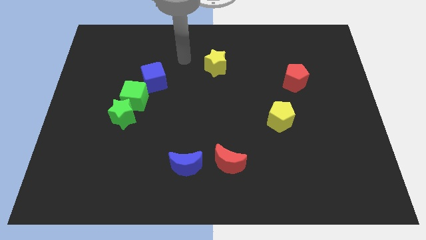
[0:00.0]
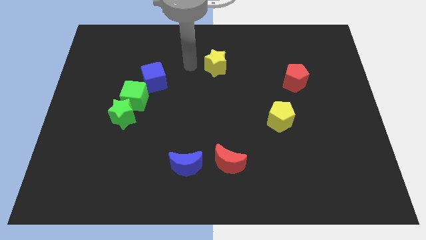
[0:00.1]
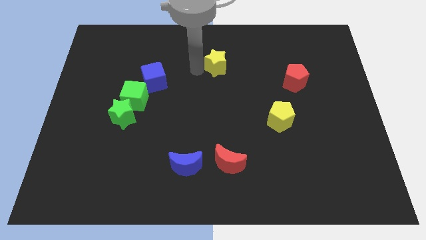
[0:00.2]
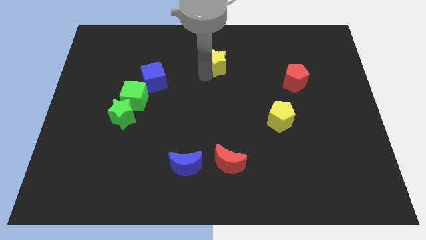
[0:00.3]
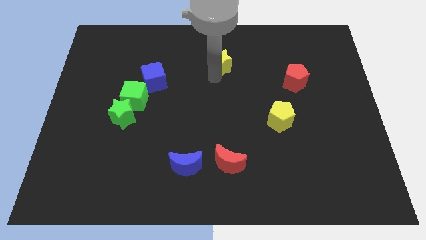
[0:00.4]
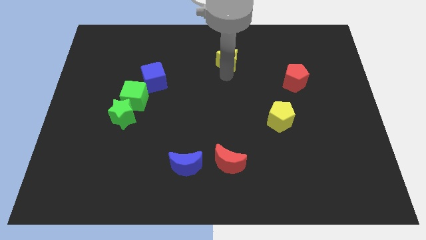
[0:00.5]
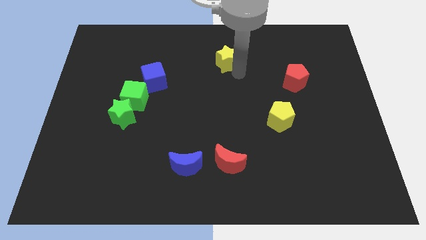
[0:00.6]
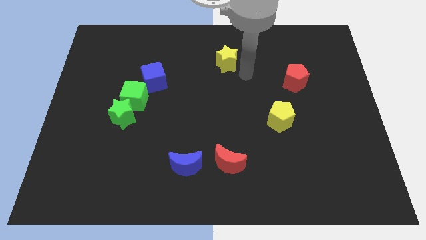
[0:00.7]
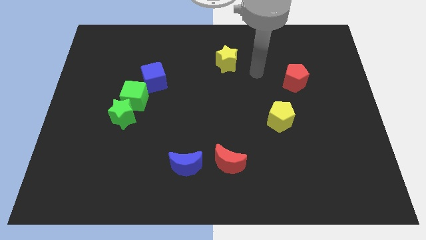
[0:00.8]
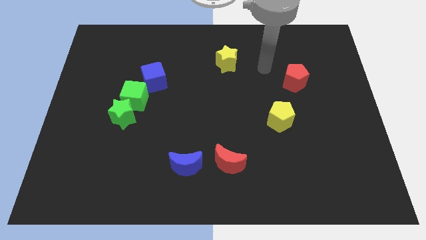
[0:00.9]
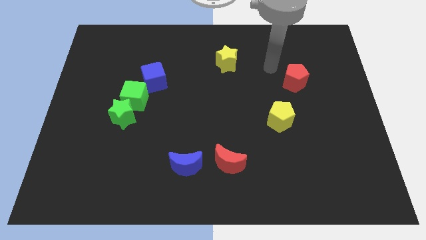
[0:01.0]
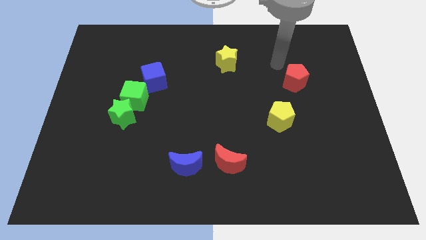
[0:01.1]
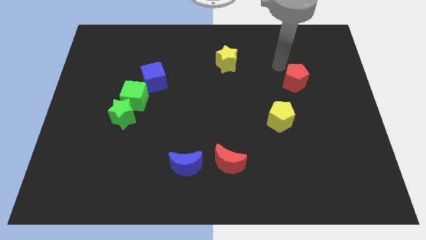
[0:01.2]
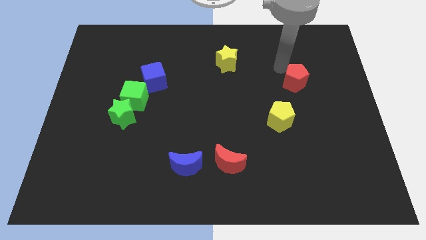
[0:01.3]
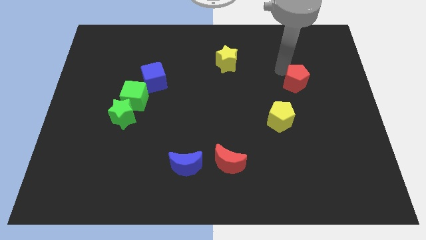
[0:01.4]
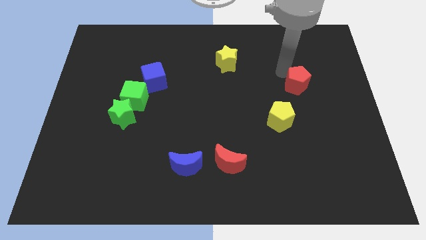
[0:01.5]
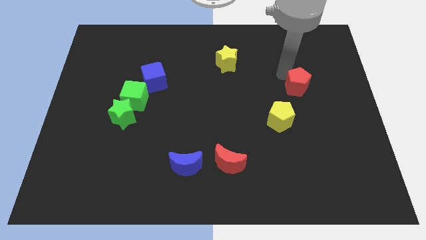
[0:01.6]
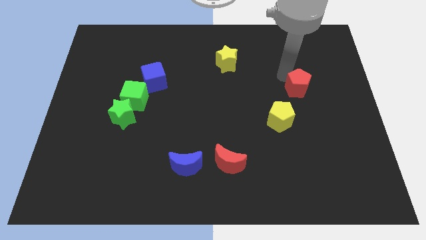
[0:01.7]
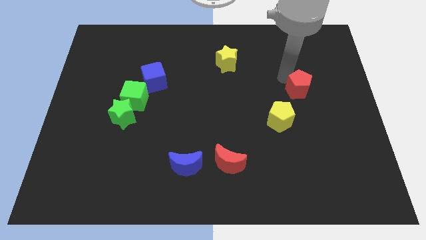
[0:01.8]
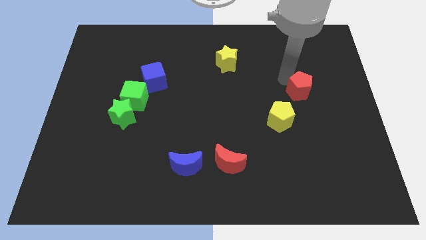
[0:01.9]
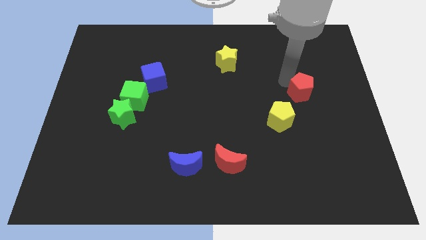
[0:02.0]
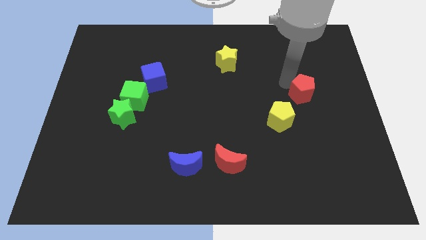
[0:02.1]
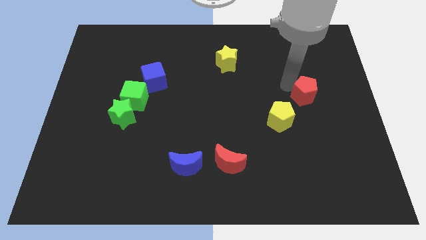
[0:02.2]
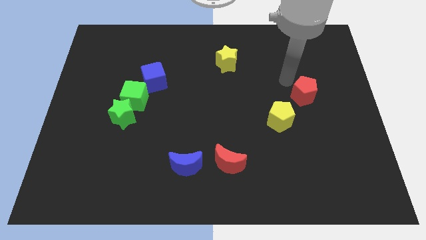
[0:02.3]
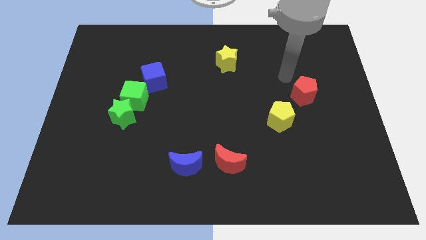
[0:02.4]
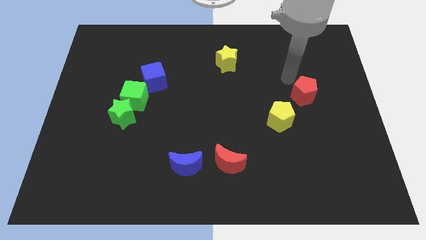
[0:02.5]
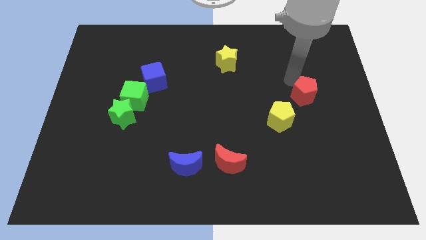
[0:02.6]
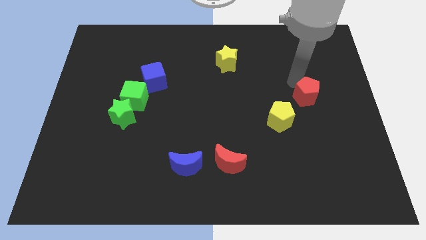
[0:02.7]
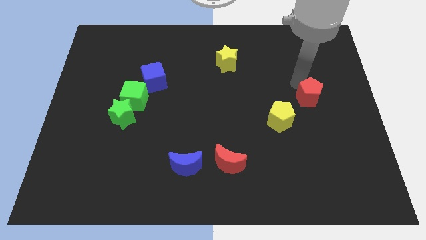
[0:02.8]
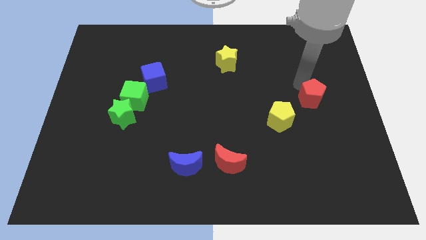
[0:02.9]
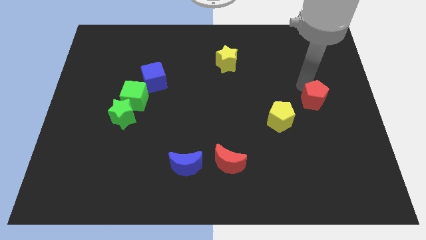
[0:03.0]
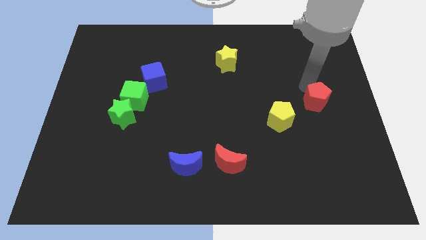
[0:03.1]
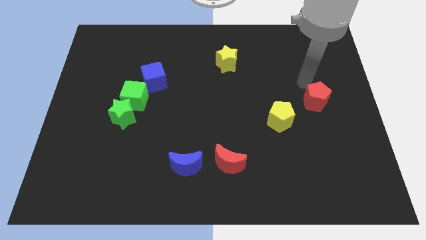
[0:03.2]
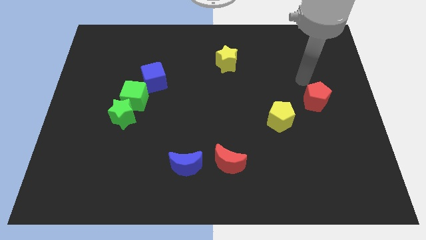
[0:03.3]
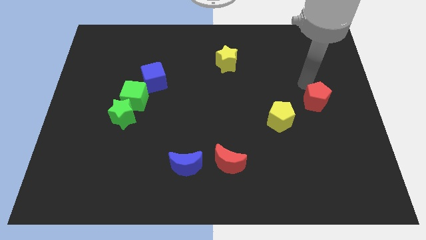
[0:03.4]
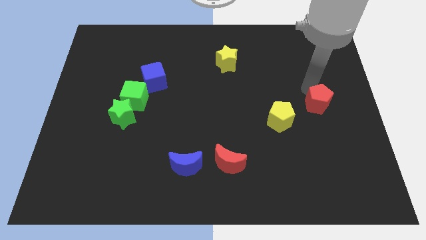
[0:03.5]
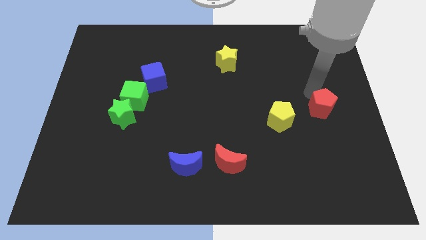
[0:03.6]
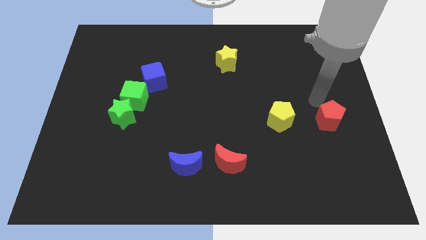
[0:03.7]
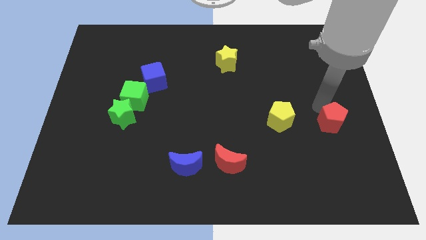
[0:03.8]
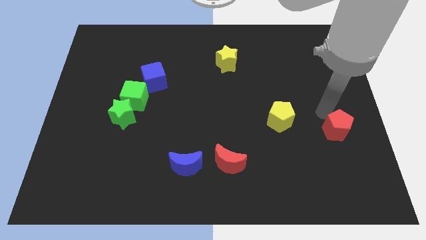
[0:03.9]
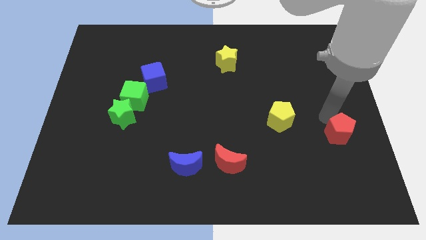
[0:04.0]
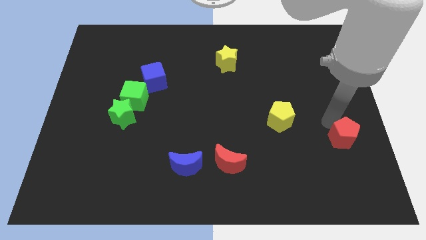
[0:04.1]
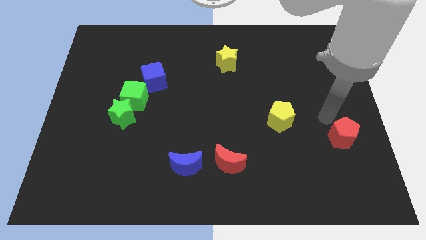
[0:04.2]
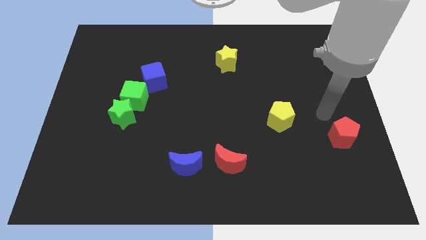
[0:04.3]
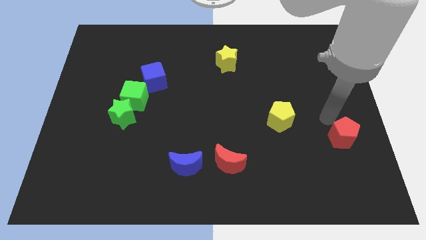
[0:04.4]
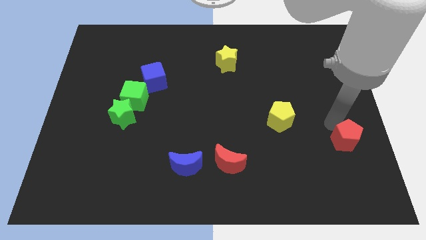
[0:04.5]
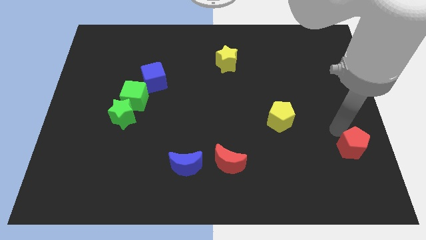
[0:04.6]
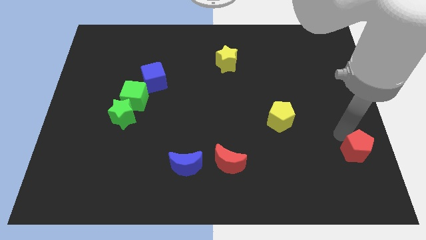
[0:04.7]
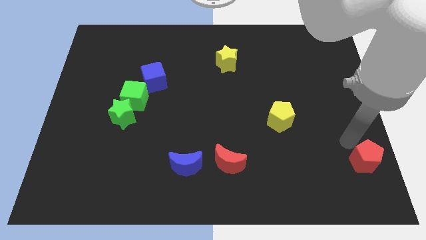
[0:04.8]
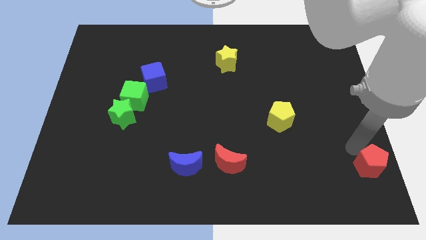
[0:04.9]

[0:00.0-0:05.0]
put the red pentagon to the bottom right

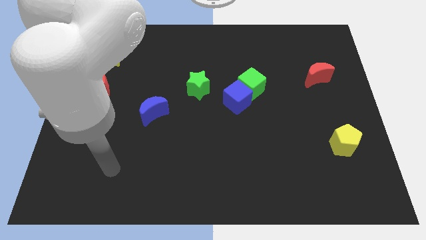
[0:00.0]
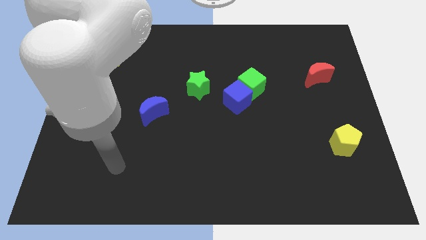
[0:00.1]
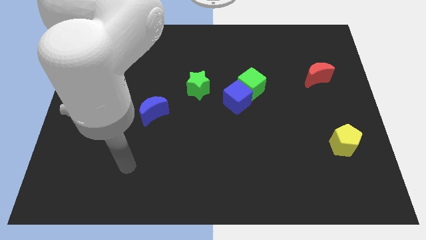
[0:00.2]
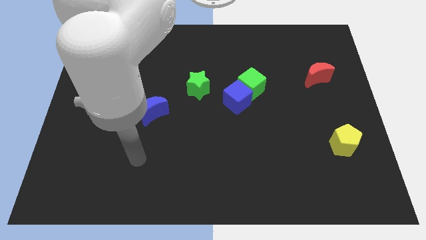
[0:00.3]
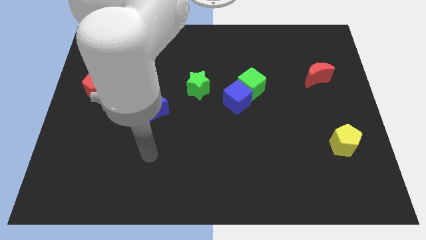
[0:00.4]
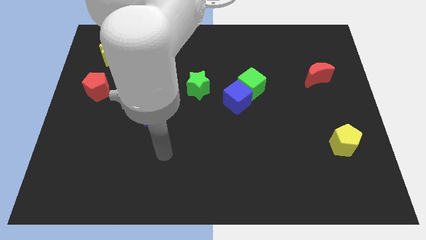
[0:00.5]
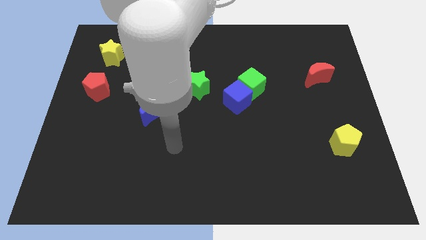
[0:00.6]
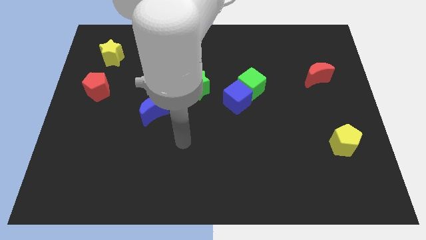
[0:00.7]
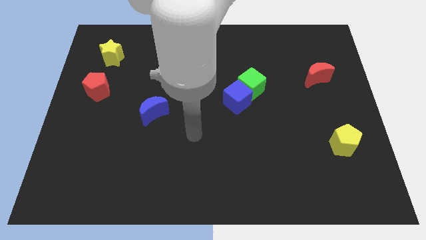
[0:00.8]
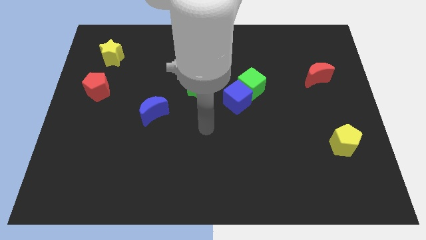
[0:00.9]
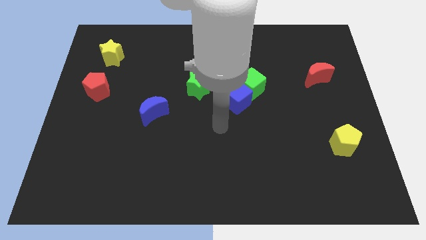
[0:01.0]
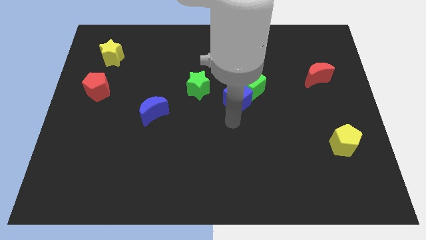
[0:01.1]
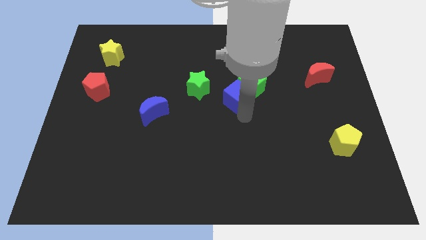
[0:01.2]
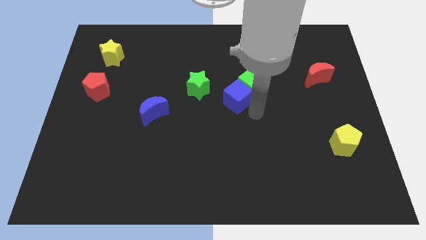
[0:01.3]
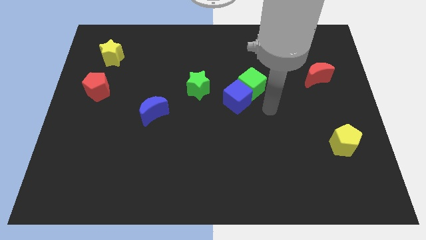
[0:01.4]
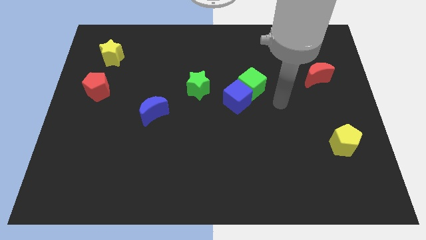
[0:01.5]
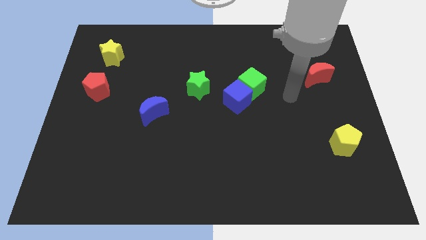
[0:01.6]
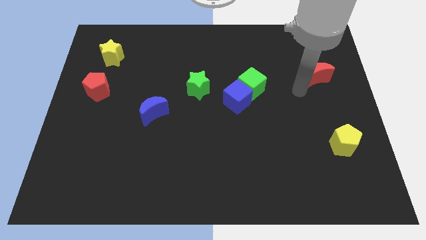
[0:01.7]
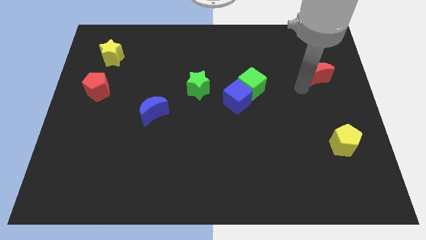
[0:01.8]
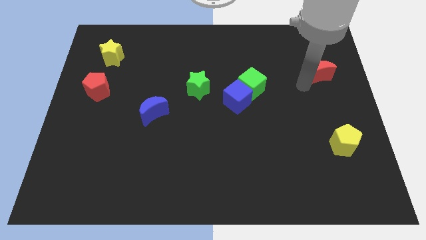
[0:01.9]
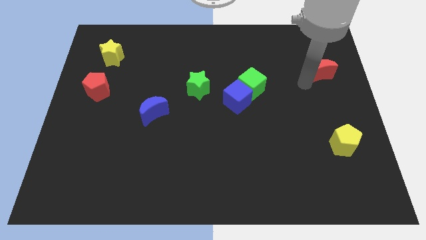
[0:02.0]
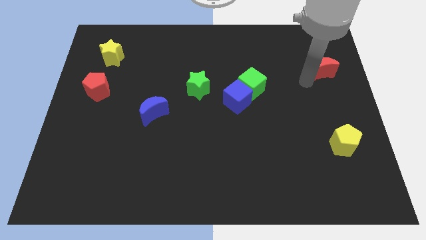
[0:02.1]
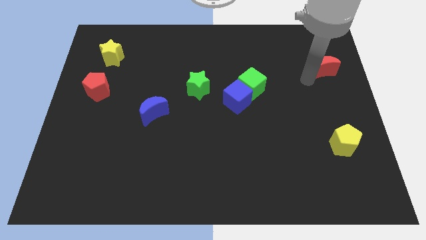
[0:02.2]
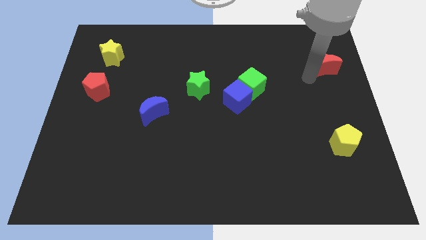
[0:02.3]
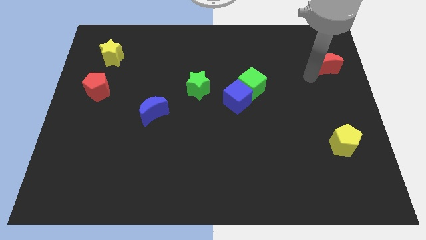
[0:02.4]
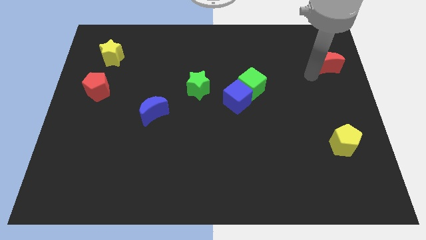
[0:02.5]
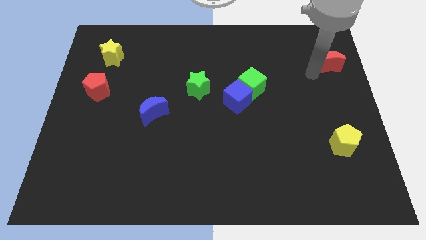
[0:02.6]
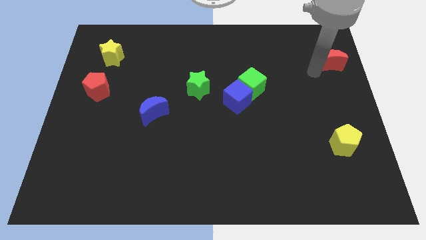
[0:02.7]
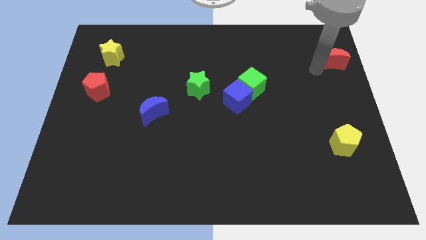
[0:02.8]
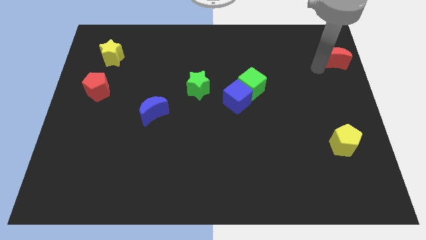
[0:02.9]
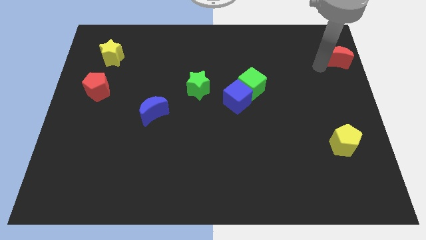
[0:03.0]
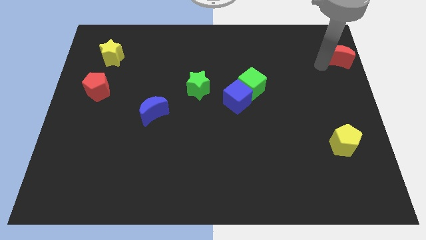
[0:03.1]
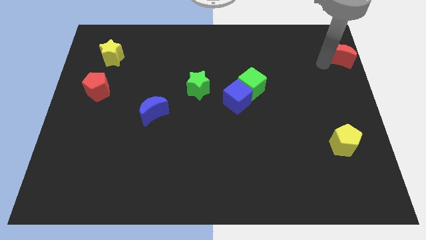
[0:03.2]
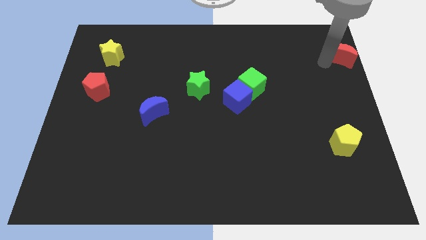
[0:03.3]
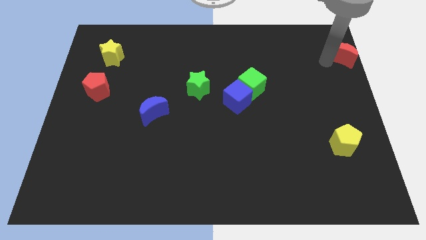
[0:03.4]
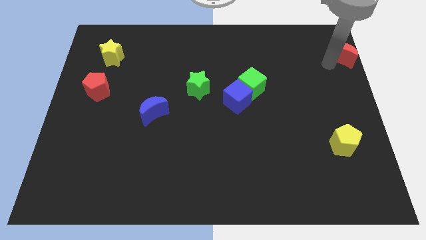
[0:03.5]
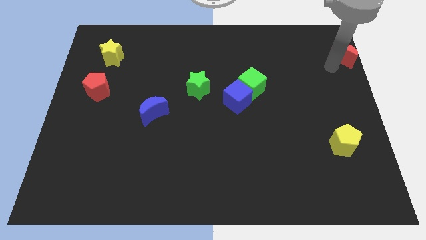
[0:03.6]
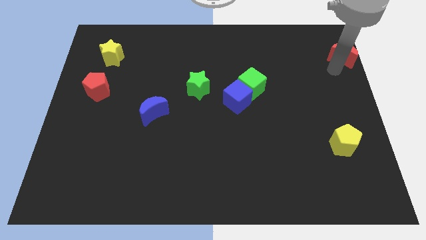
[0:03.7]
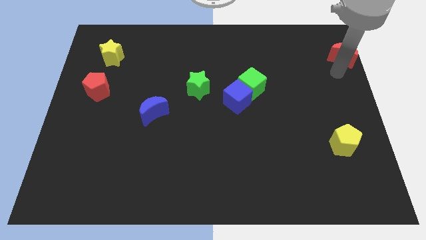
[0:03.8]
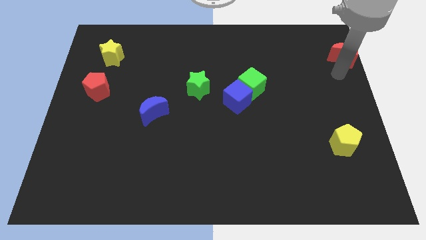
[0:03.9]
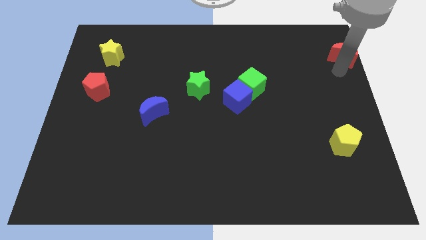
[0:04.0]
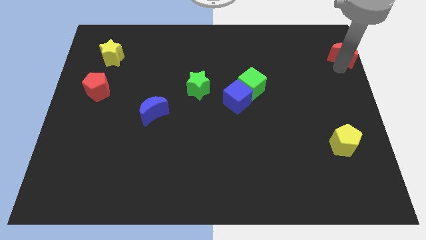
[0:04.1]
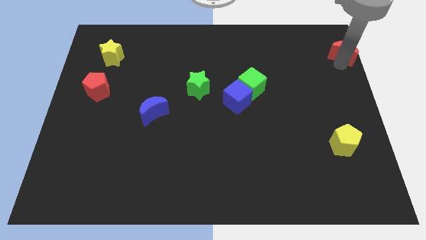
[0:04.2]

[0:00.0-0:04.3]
slide the red moon to the top right
